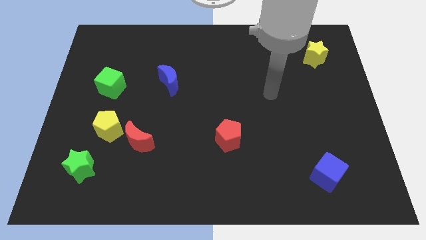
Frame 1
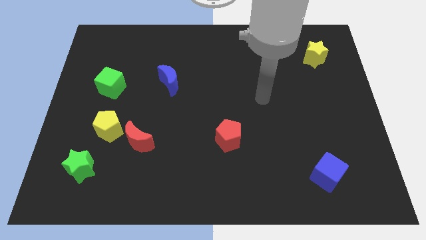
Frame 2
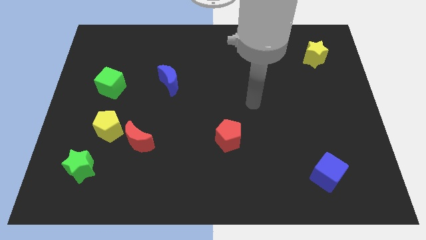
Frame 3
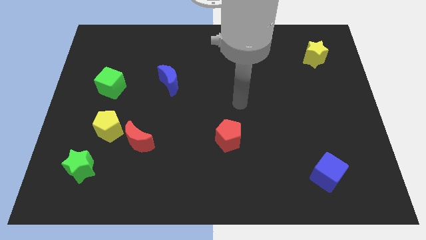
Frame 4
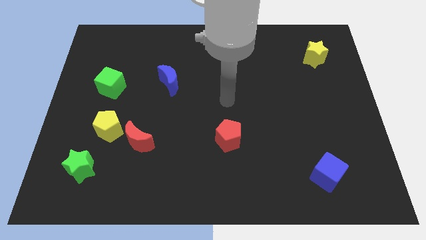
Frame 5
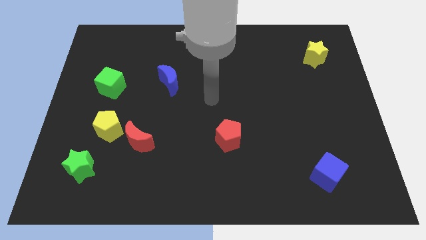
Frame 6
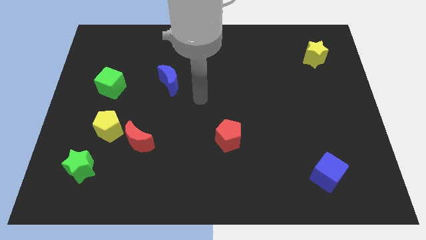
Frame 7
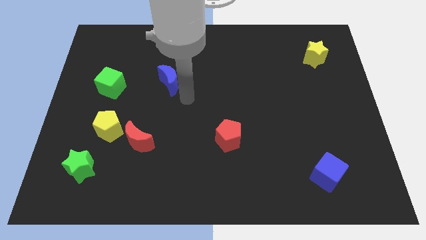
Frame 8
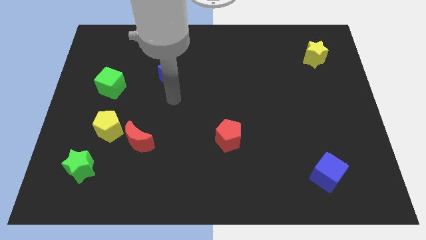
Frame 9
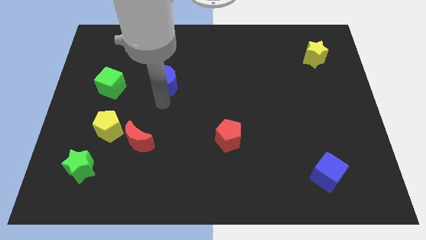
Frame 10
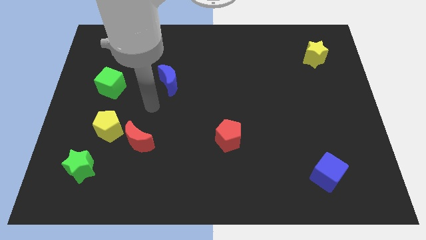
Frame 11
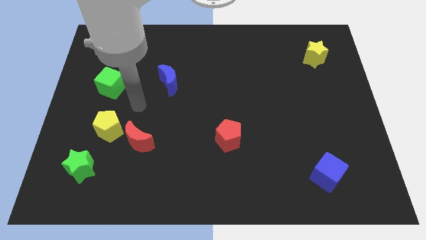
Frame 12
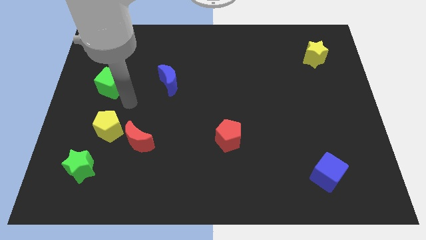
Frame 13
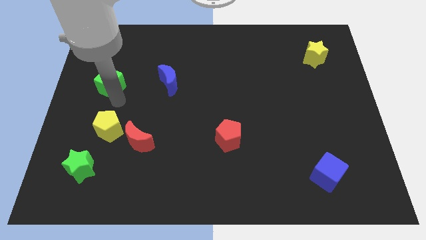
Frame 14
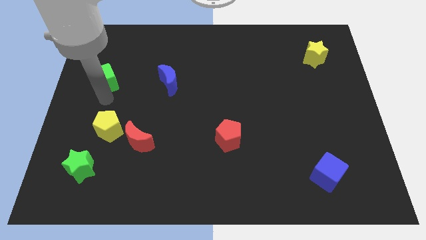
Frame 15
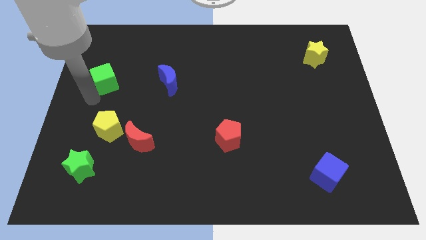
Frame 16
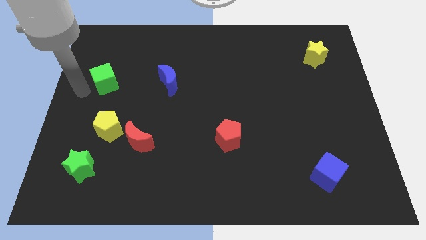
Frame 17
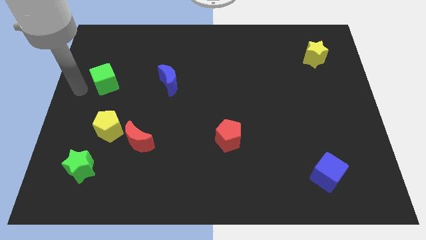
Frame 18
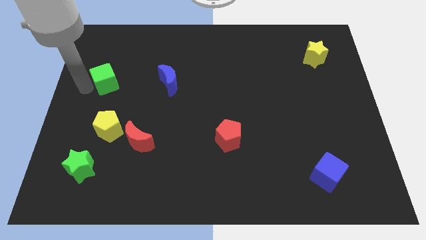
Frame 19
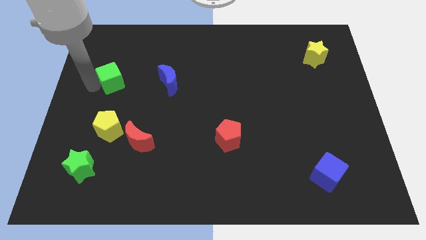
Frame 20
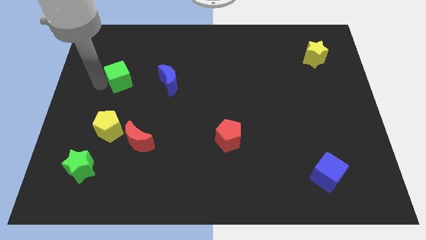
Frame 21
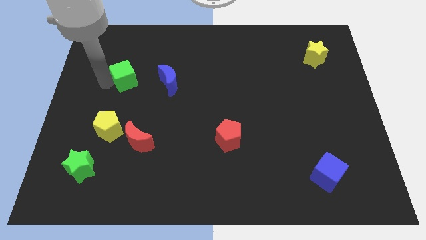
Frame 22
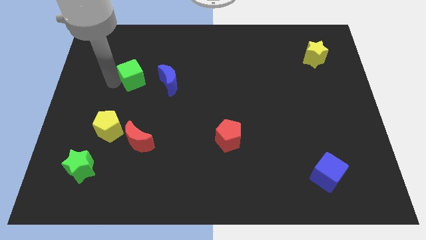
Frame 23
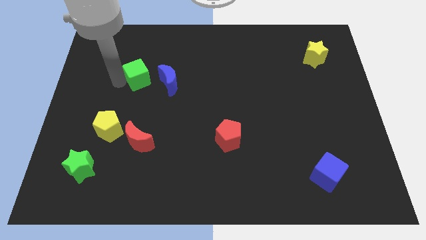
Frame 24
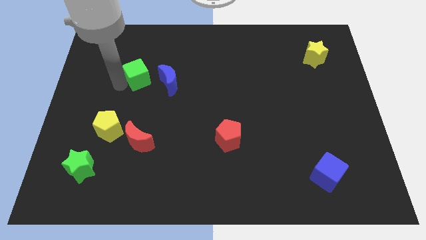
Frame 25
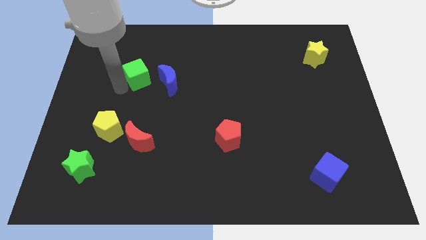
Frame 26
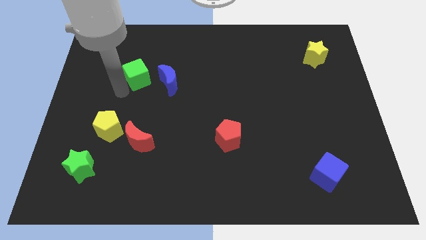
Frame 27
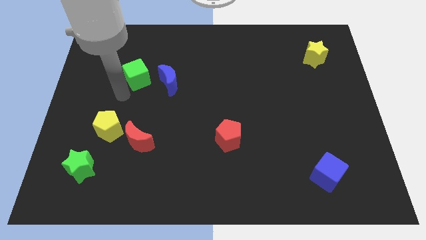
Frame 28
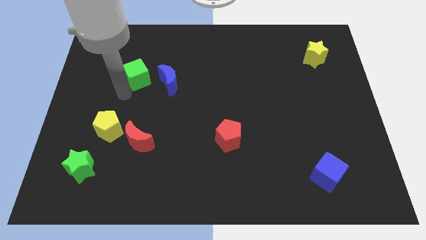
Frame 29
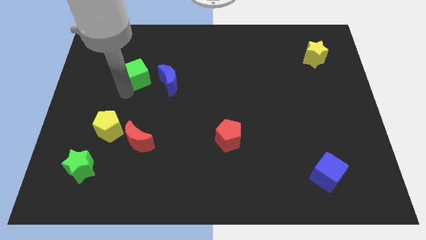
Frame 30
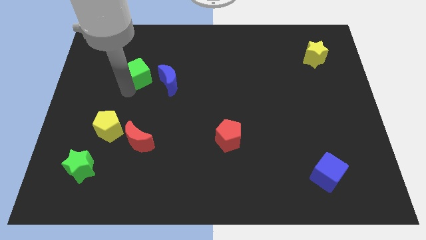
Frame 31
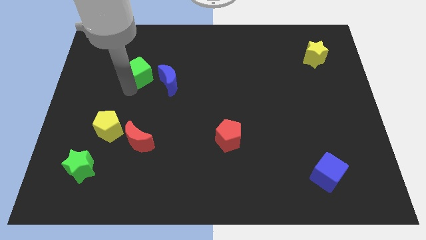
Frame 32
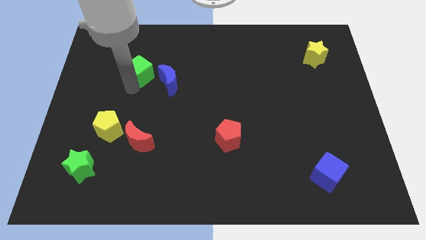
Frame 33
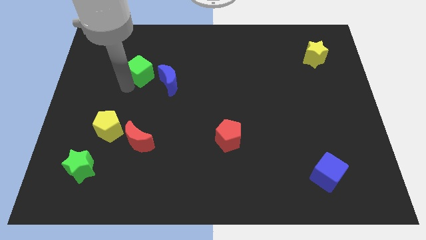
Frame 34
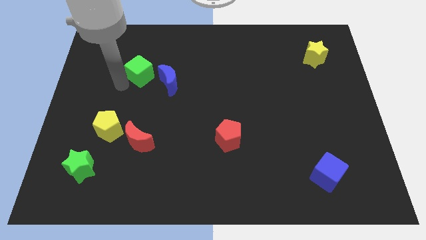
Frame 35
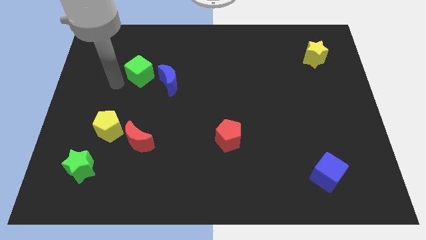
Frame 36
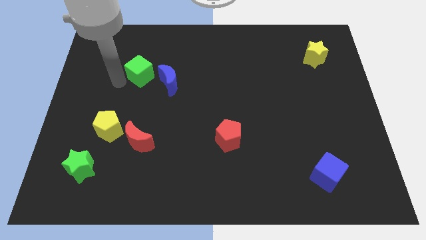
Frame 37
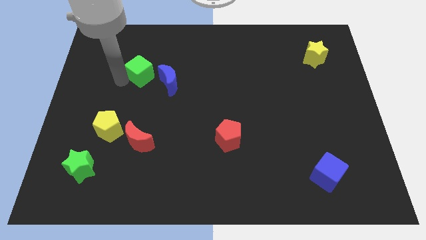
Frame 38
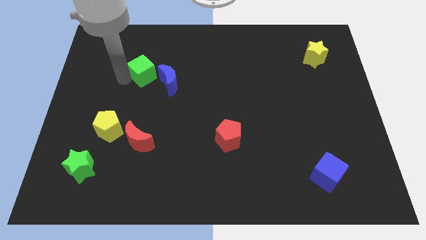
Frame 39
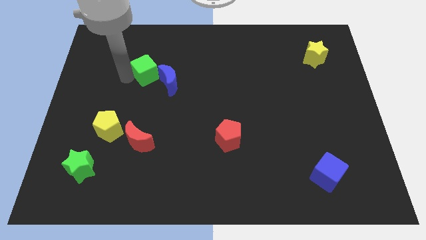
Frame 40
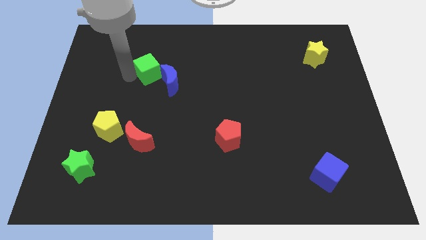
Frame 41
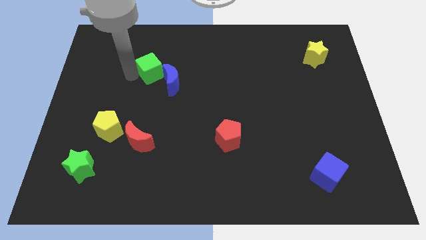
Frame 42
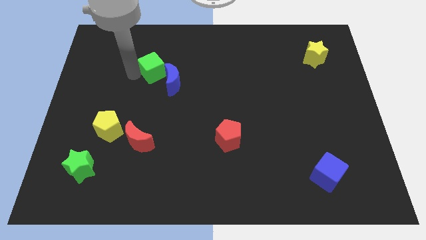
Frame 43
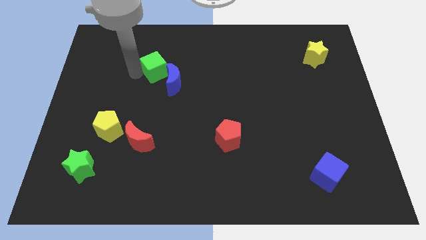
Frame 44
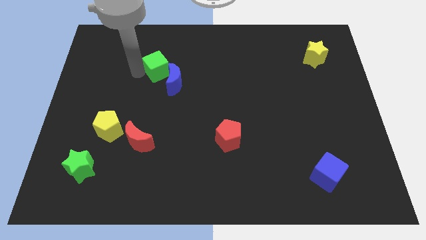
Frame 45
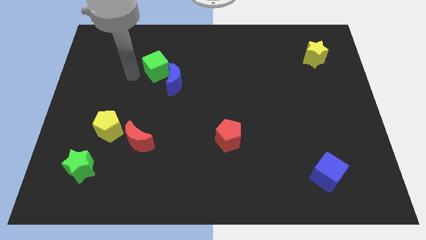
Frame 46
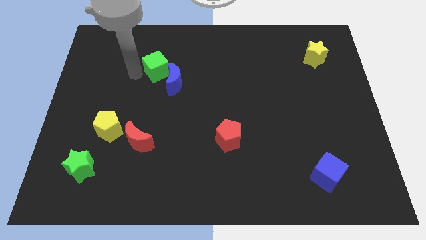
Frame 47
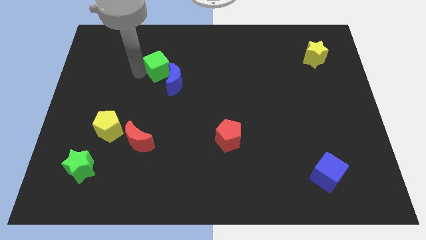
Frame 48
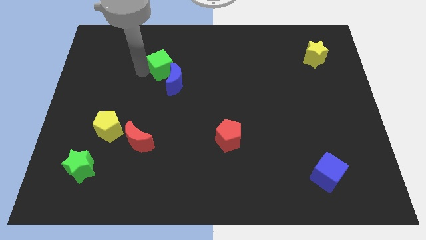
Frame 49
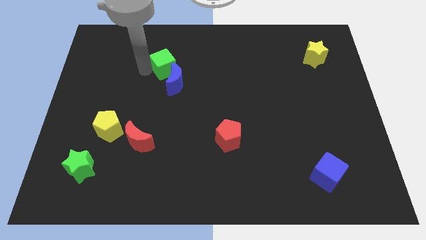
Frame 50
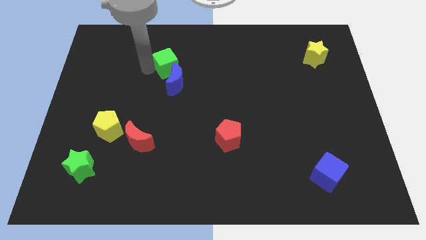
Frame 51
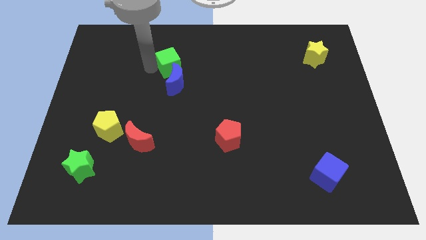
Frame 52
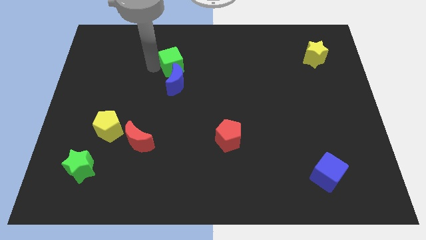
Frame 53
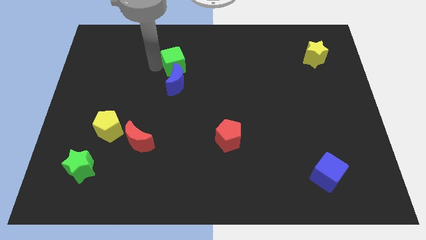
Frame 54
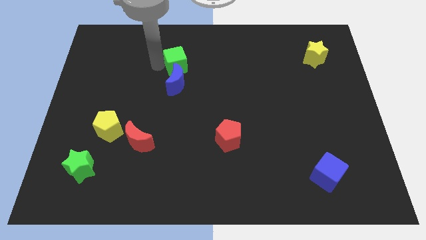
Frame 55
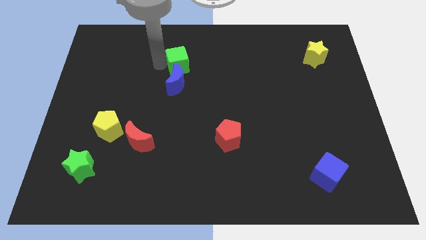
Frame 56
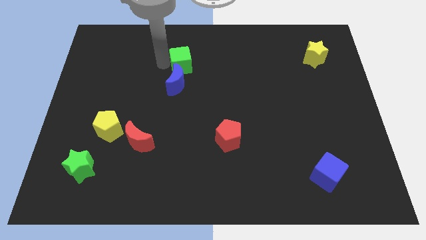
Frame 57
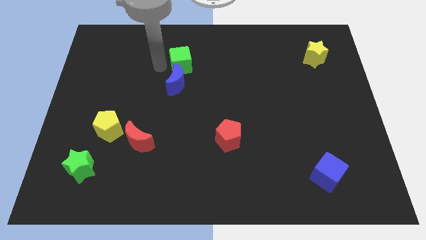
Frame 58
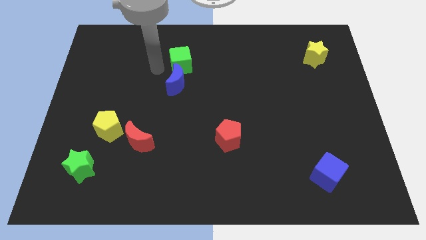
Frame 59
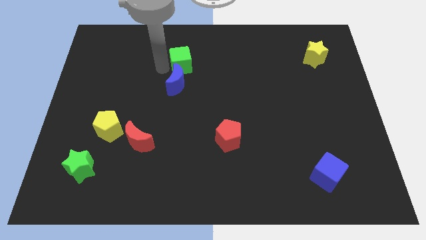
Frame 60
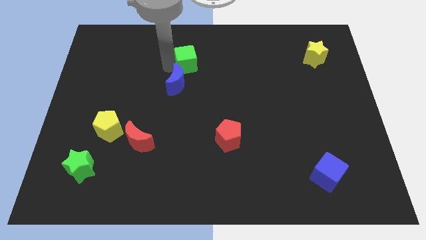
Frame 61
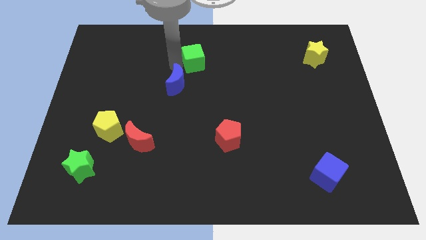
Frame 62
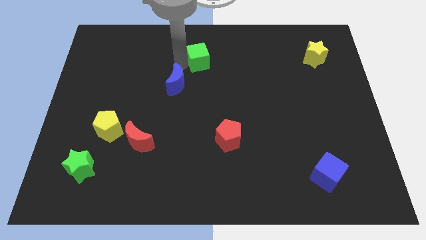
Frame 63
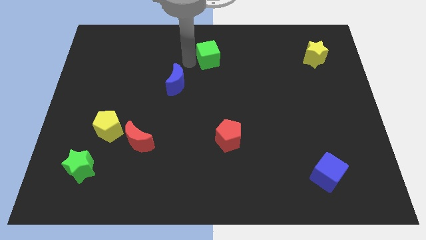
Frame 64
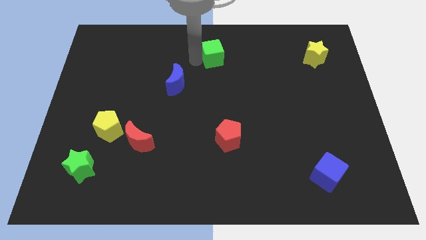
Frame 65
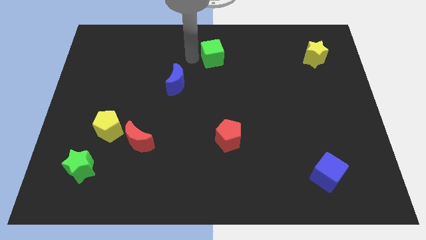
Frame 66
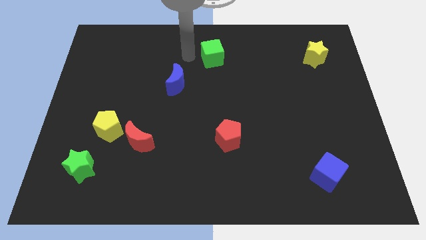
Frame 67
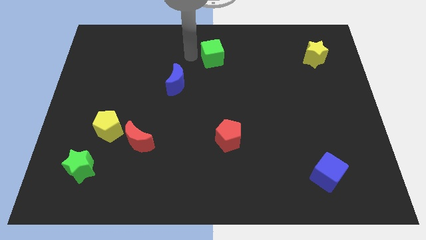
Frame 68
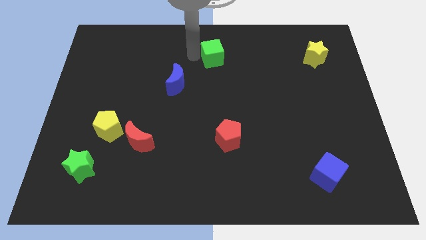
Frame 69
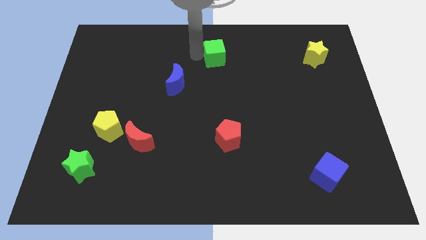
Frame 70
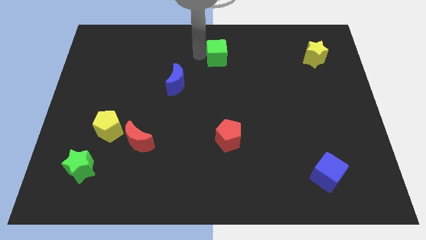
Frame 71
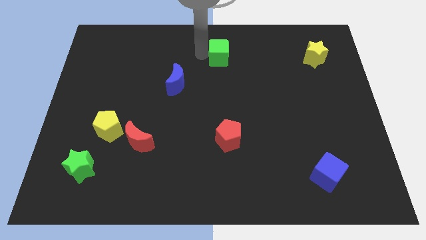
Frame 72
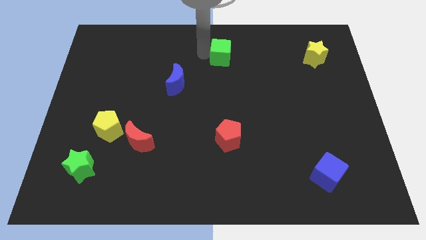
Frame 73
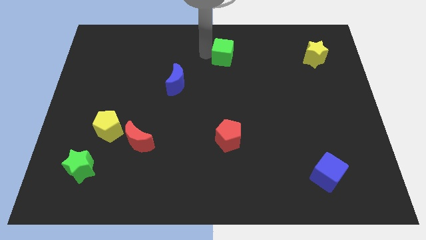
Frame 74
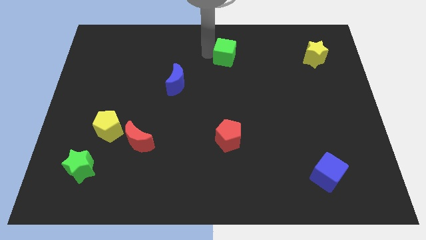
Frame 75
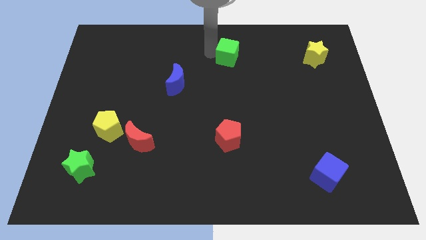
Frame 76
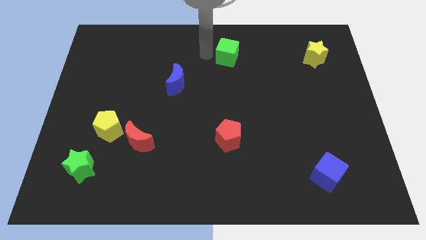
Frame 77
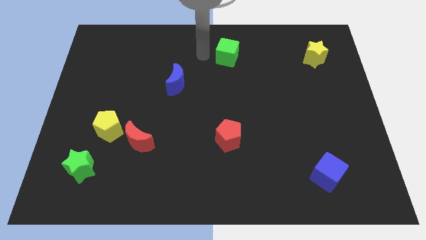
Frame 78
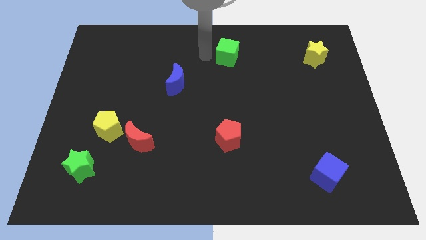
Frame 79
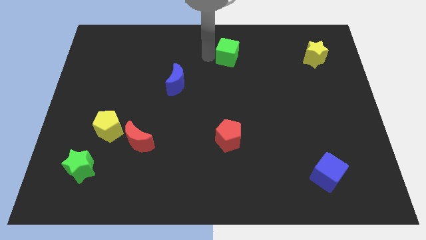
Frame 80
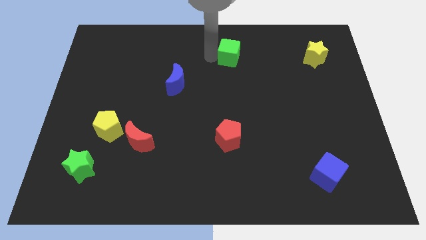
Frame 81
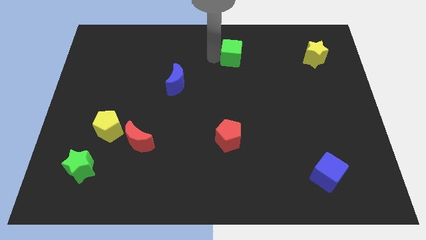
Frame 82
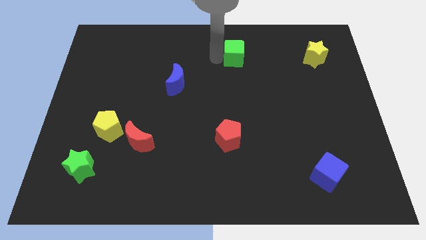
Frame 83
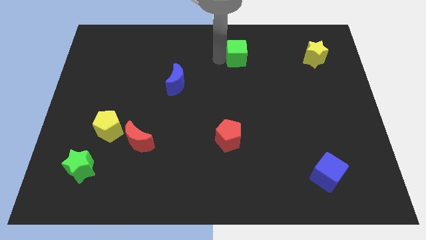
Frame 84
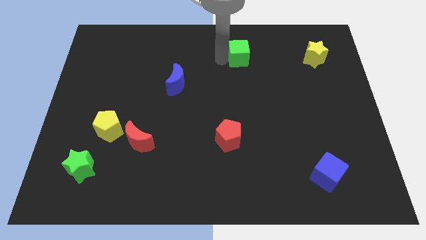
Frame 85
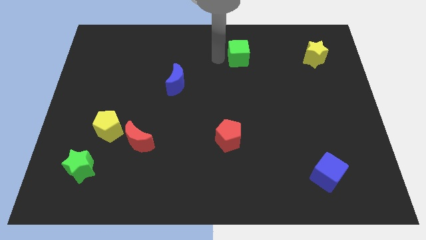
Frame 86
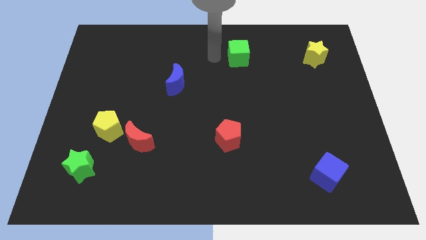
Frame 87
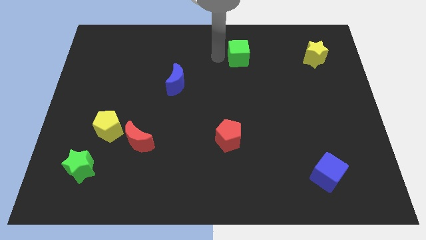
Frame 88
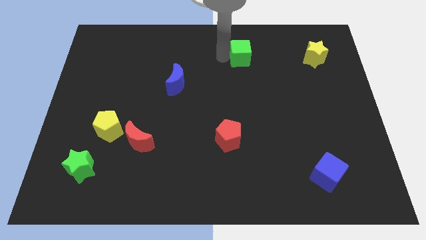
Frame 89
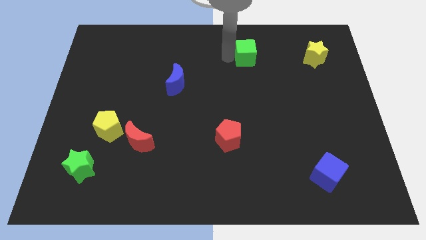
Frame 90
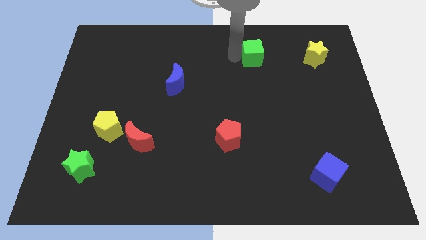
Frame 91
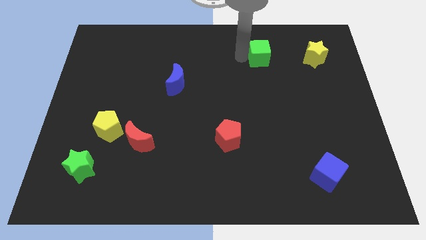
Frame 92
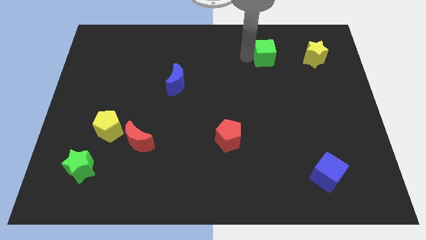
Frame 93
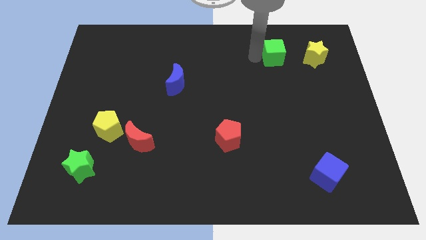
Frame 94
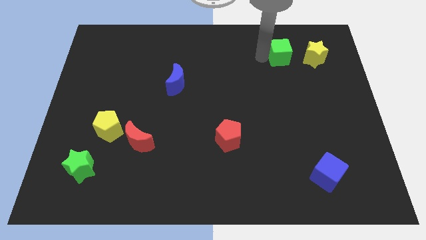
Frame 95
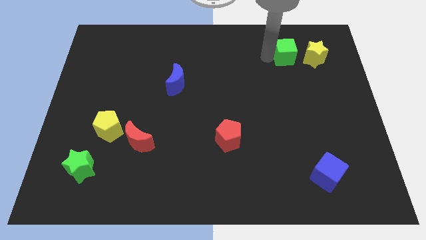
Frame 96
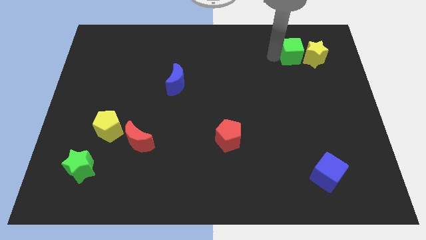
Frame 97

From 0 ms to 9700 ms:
put the green cube next to the yellow star
